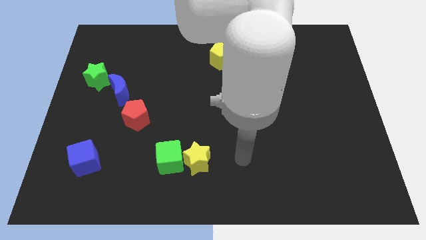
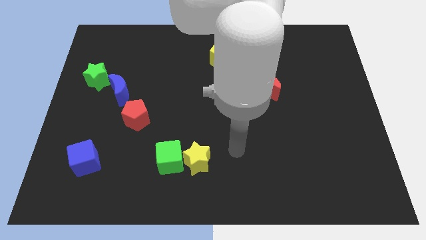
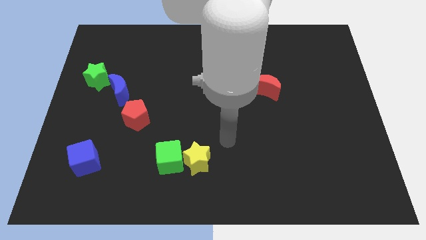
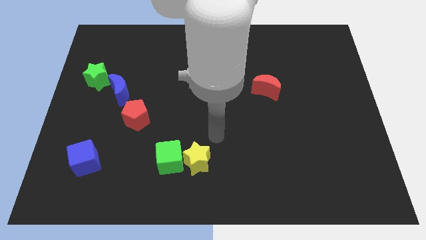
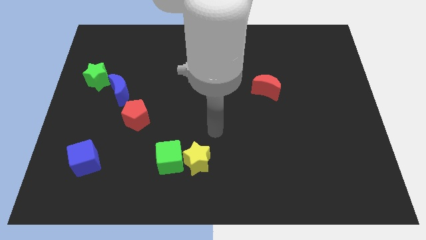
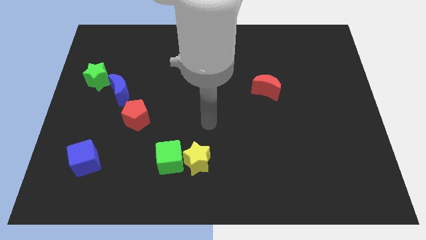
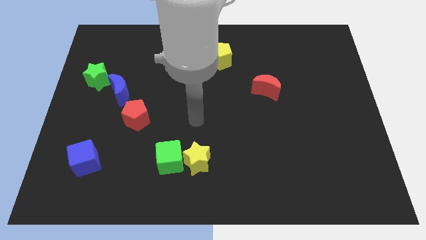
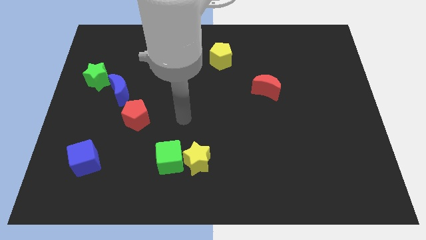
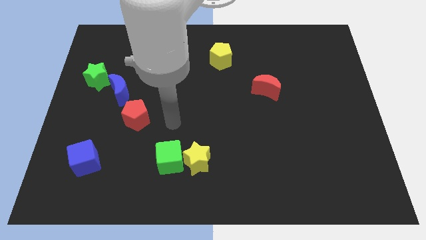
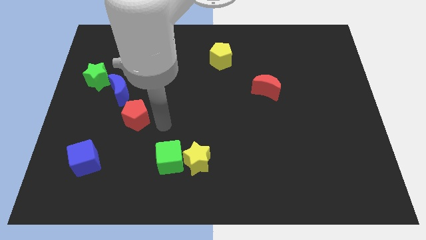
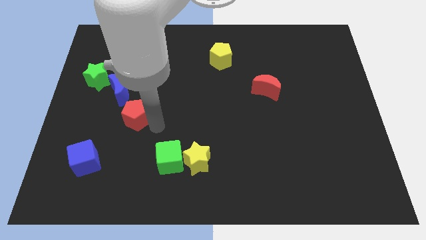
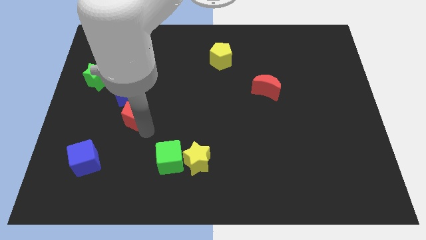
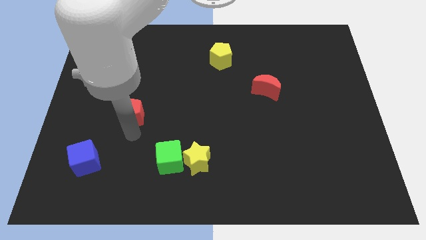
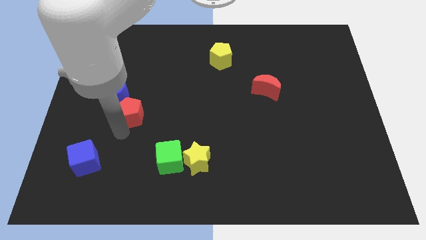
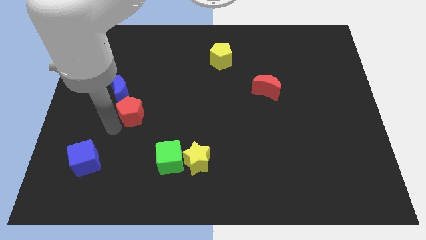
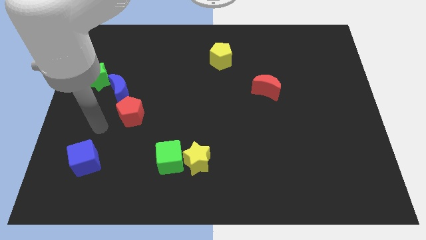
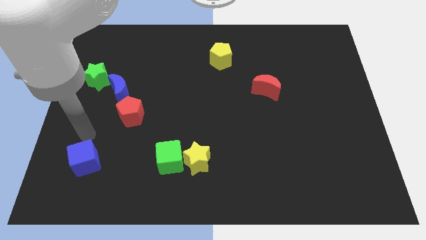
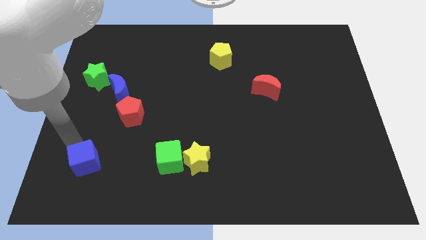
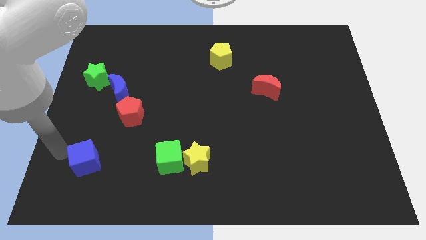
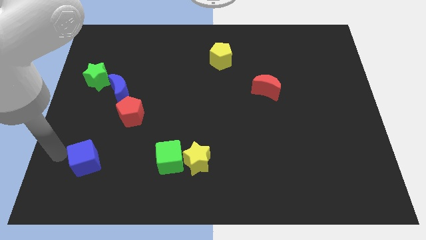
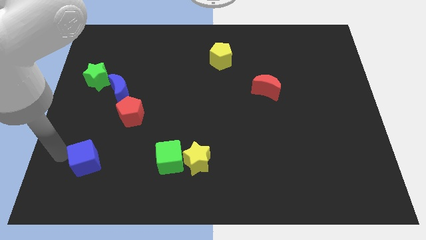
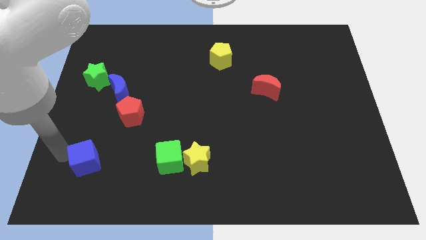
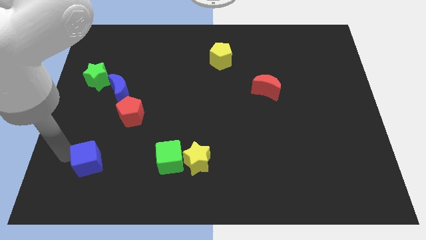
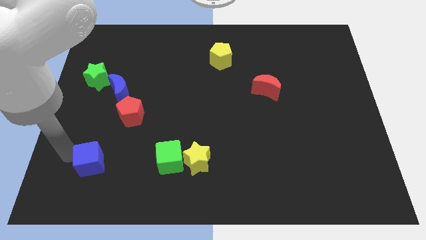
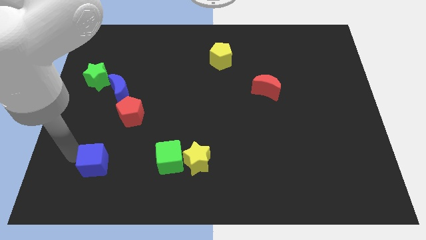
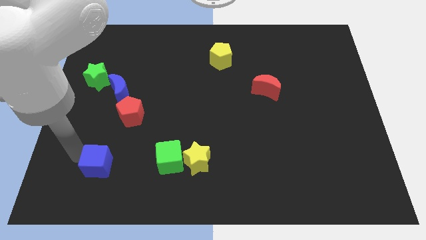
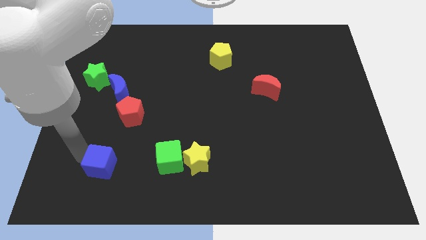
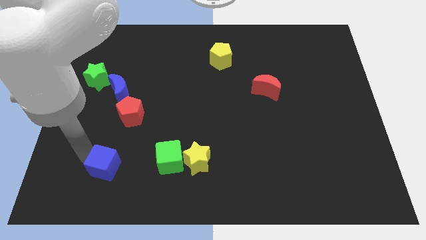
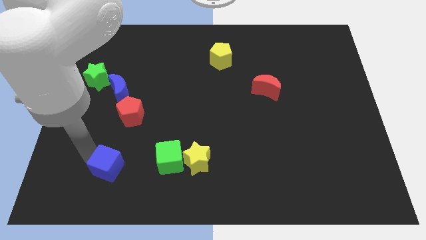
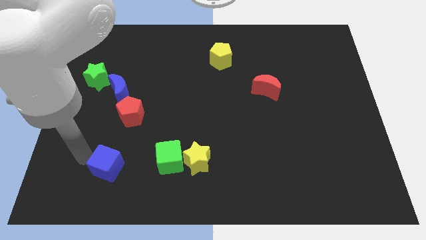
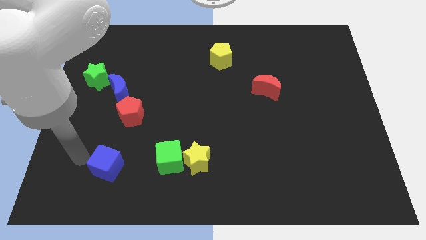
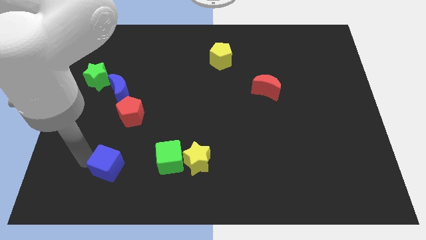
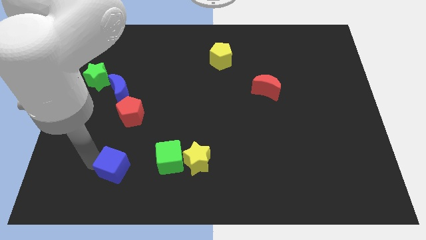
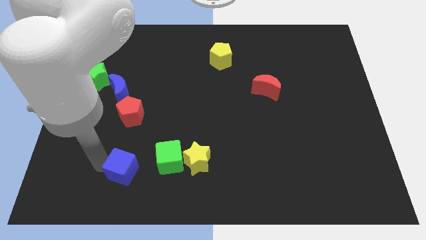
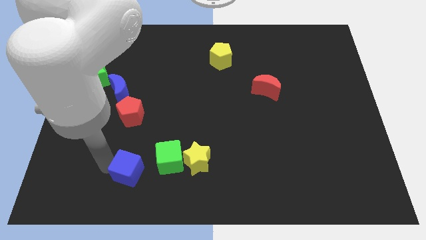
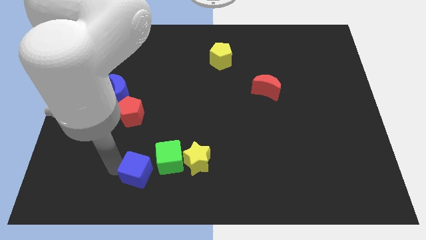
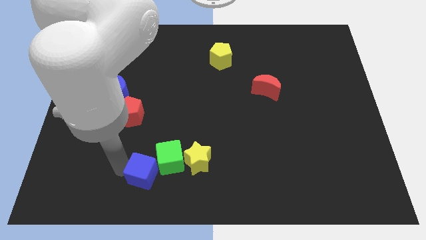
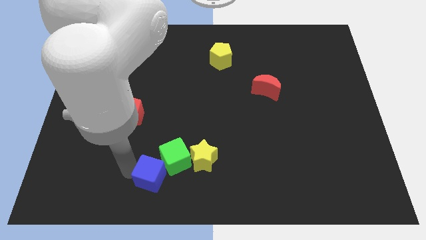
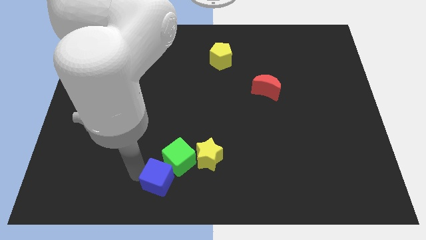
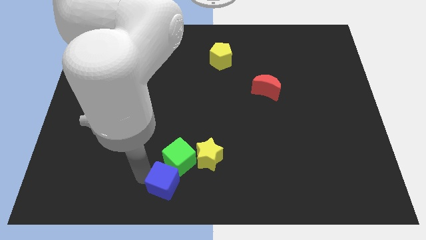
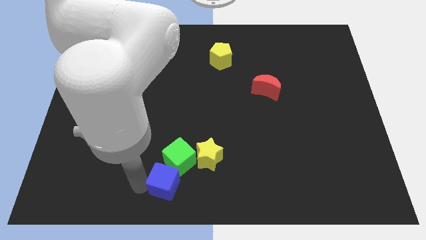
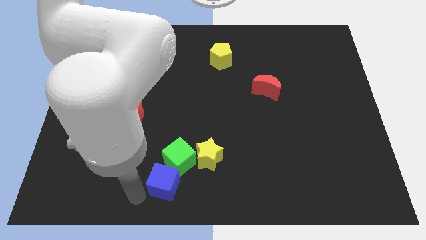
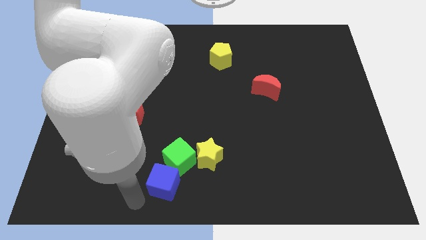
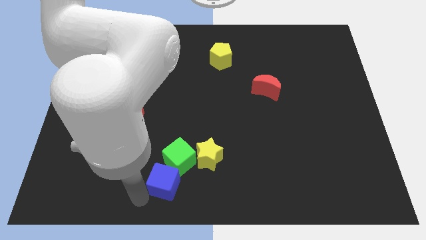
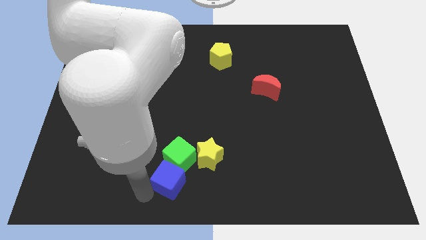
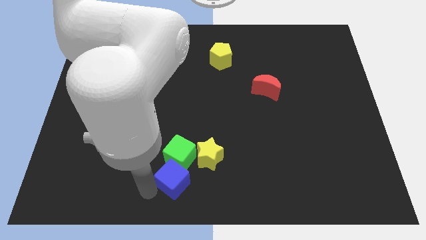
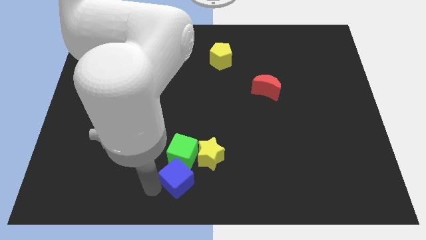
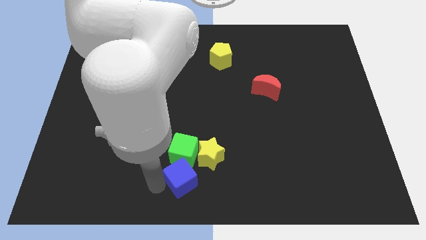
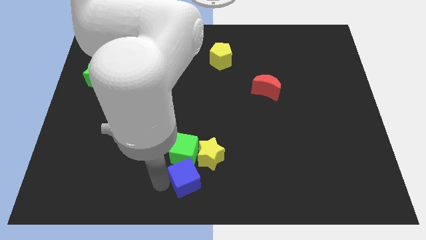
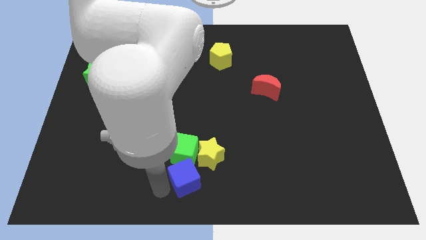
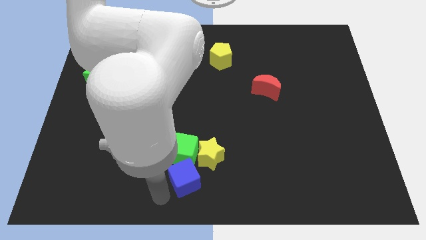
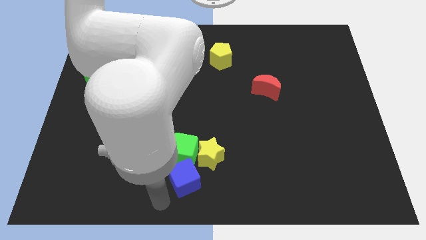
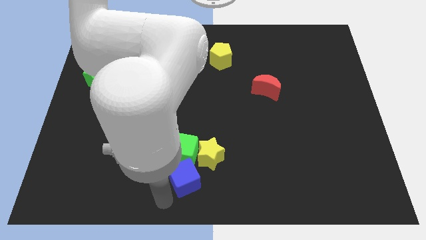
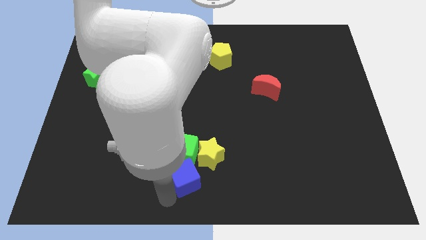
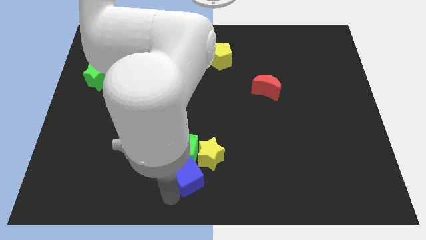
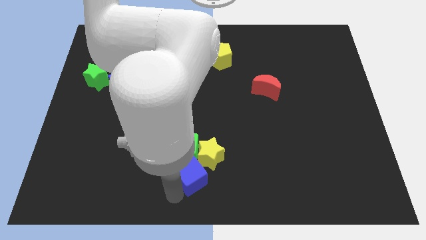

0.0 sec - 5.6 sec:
slide the blue cube close to the yellow star

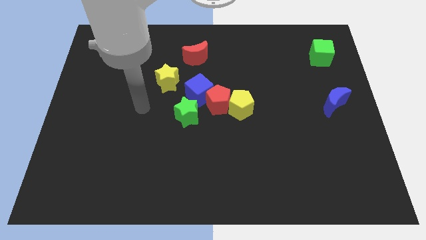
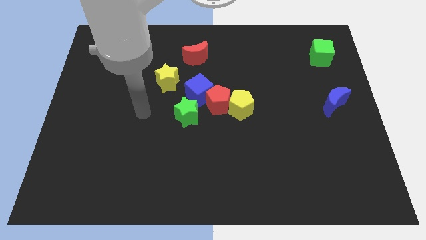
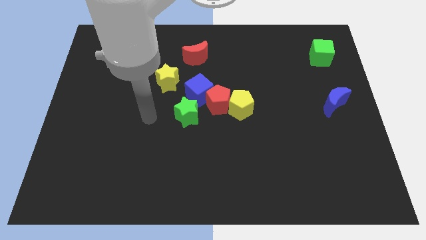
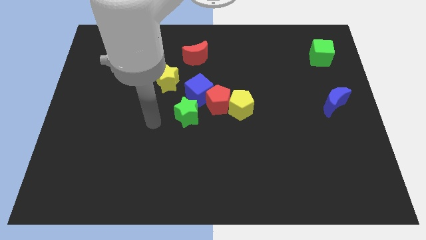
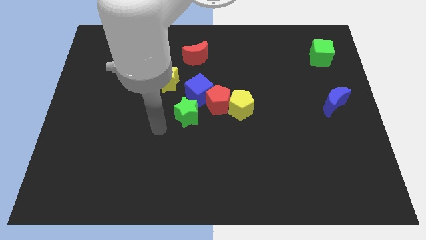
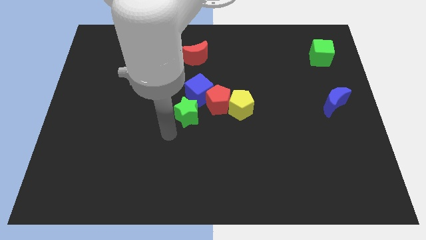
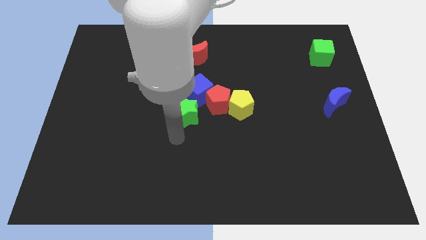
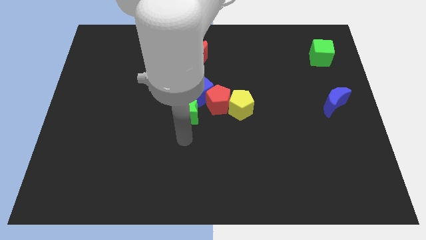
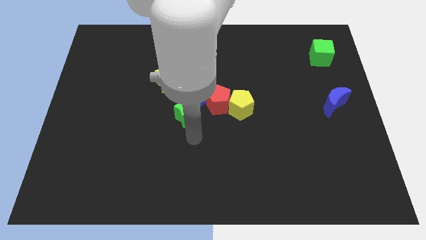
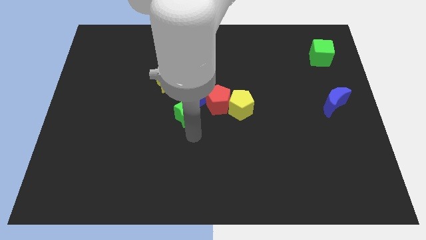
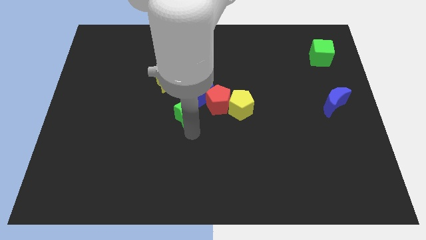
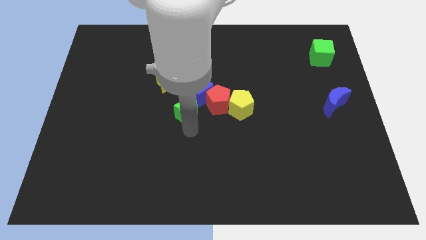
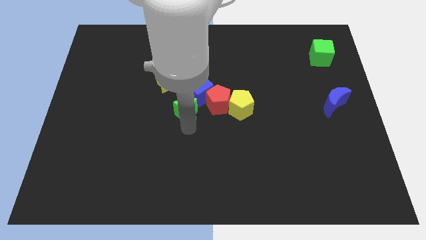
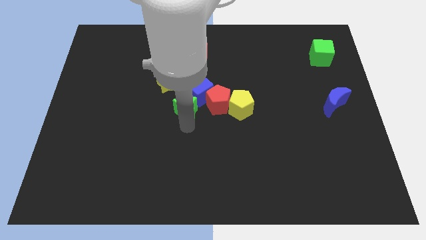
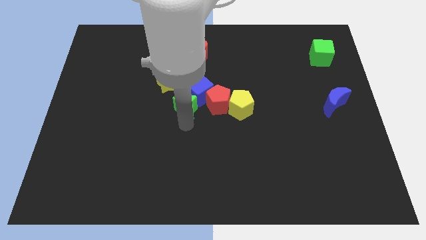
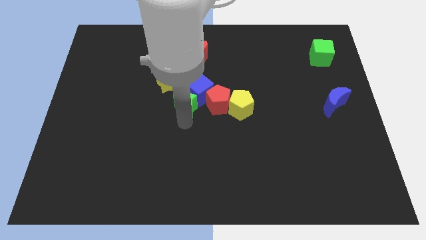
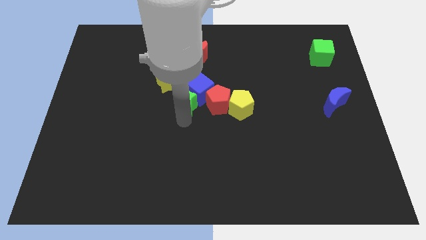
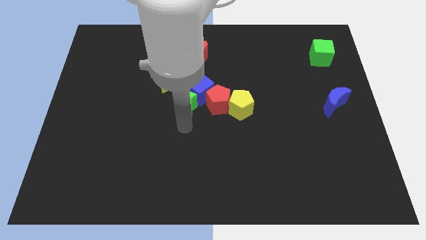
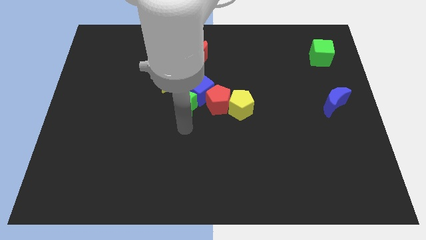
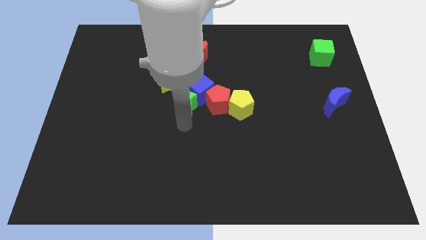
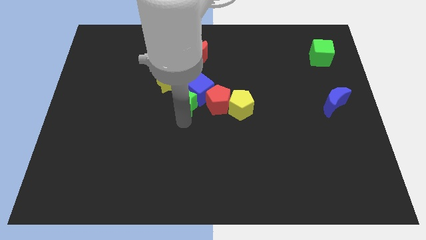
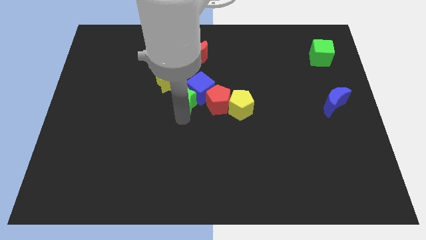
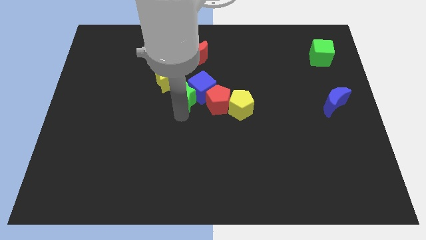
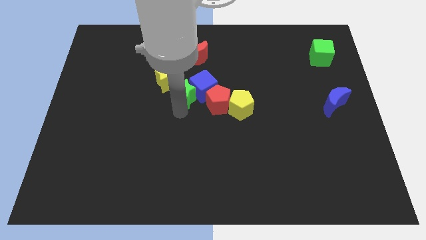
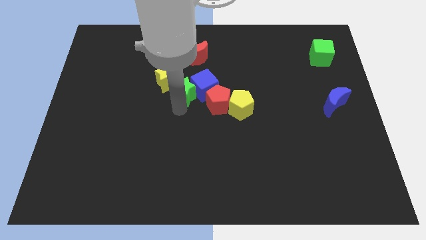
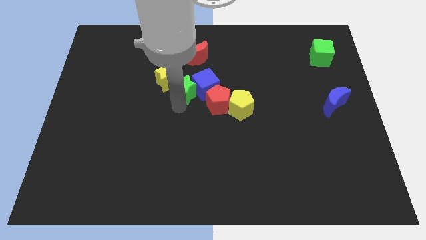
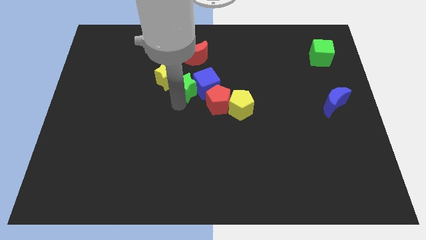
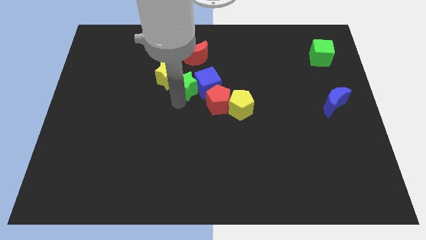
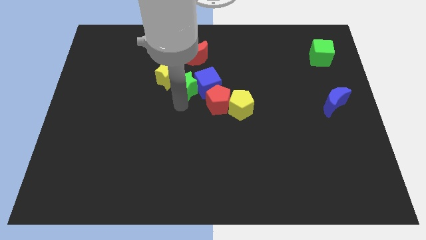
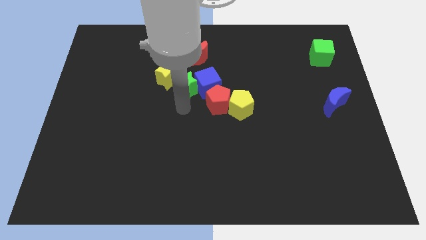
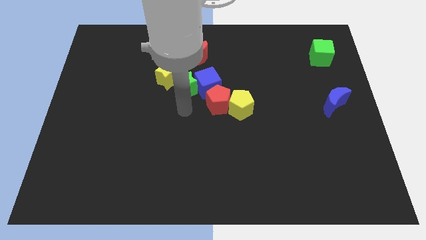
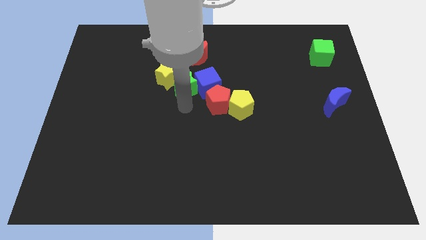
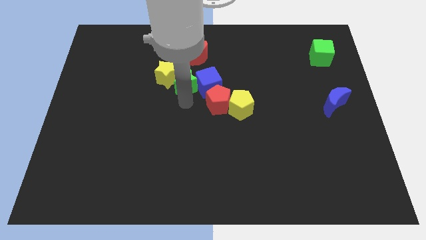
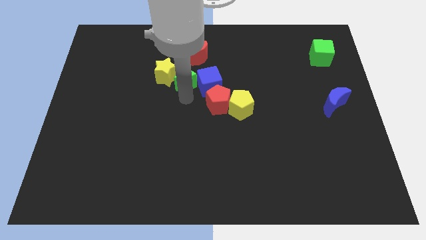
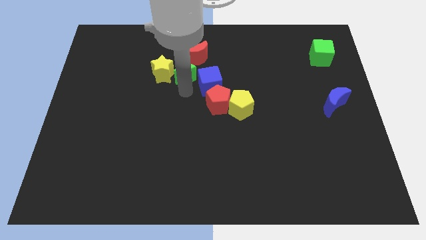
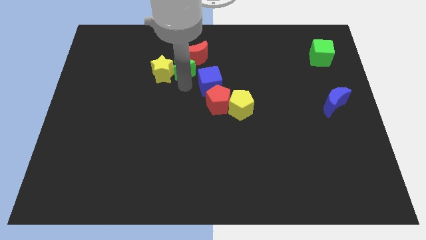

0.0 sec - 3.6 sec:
put the green star to the red moon
